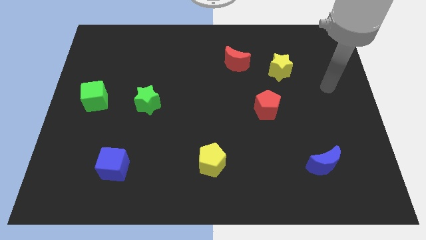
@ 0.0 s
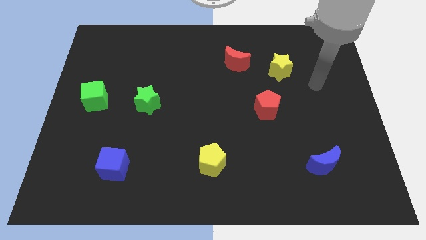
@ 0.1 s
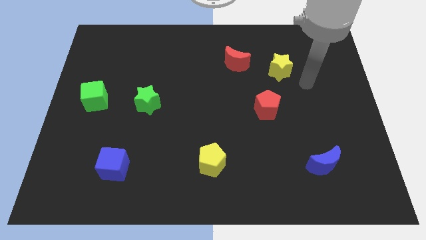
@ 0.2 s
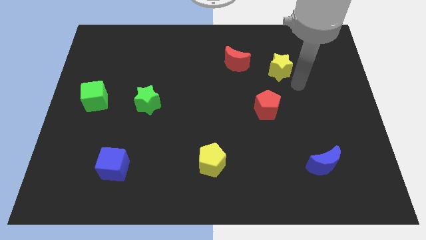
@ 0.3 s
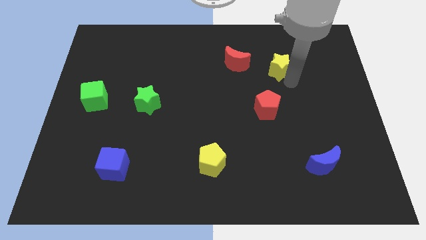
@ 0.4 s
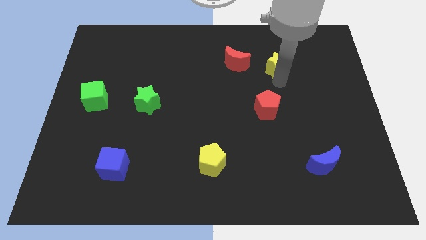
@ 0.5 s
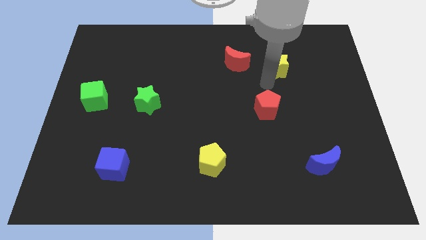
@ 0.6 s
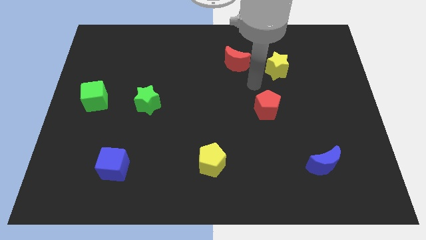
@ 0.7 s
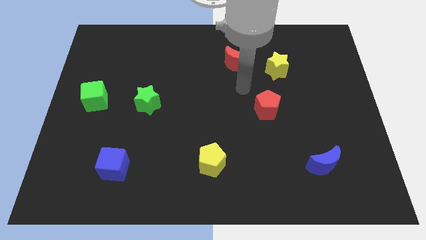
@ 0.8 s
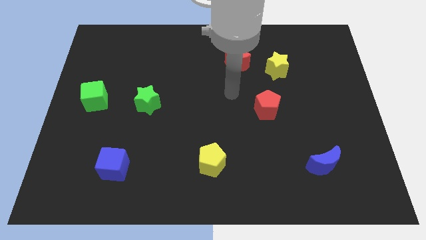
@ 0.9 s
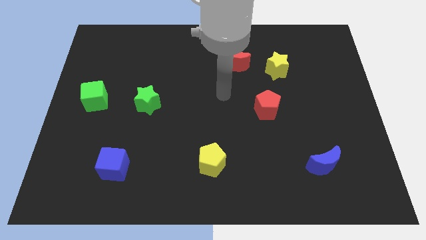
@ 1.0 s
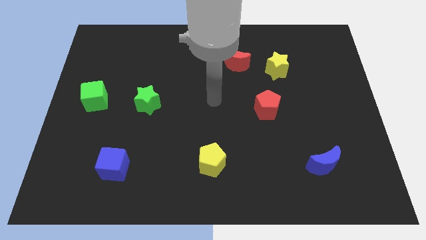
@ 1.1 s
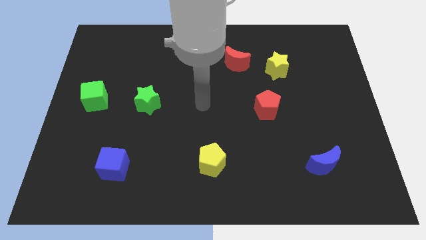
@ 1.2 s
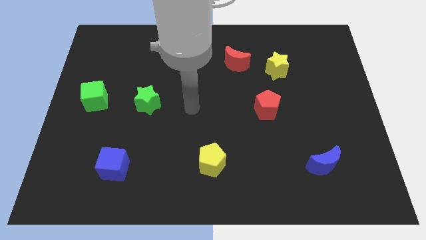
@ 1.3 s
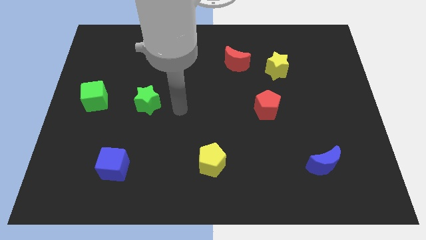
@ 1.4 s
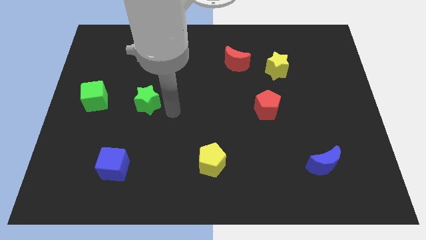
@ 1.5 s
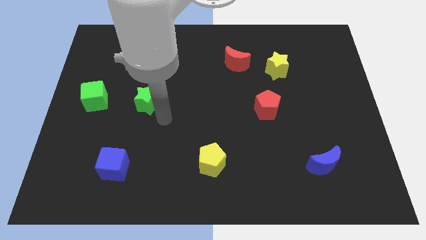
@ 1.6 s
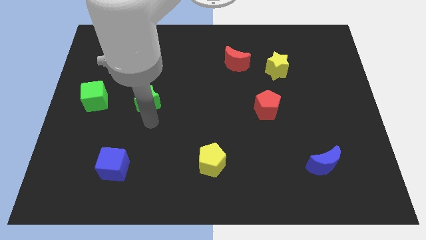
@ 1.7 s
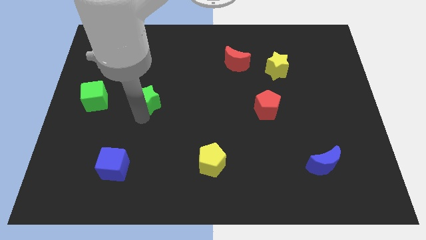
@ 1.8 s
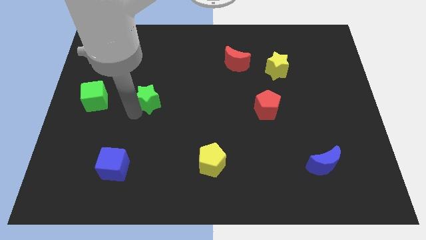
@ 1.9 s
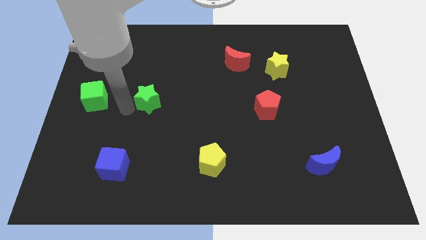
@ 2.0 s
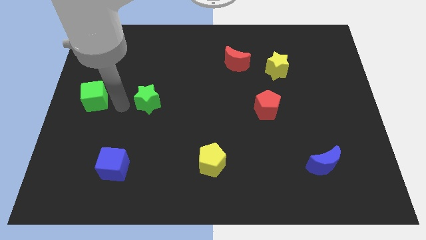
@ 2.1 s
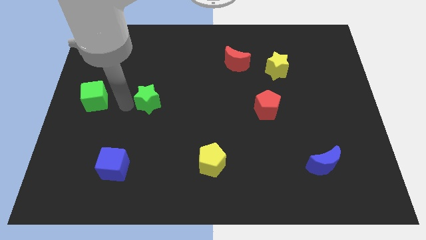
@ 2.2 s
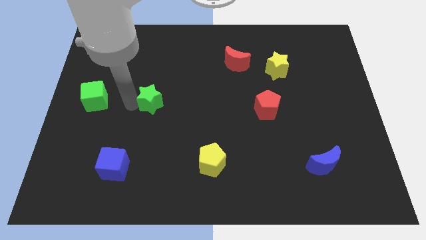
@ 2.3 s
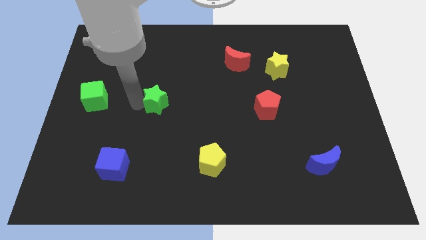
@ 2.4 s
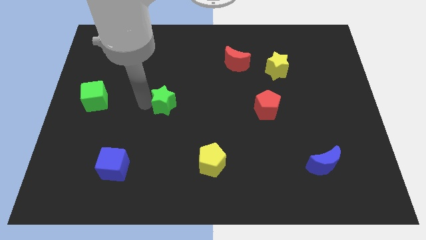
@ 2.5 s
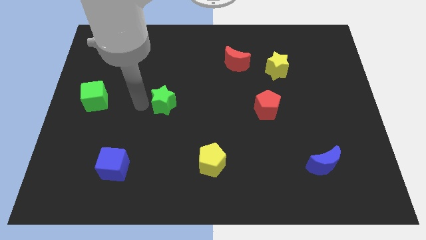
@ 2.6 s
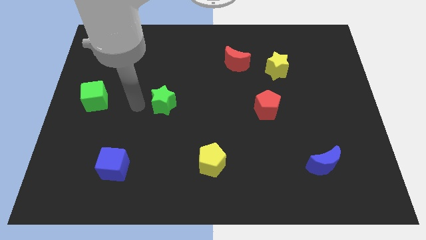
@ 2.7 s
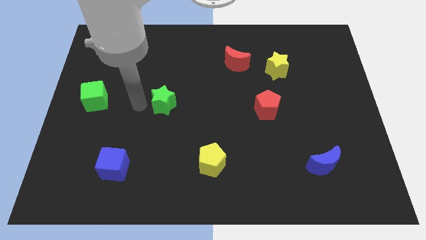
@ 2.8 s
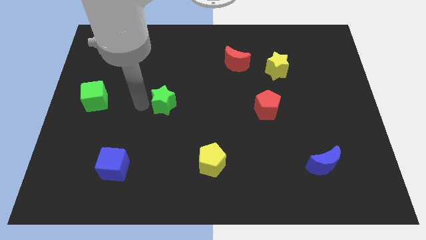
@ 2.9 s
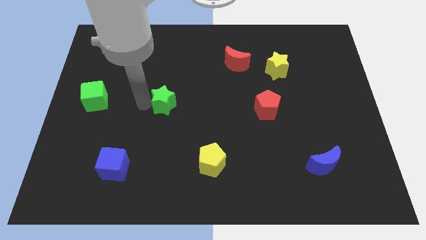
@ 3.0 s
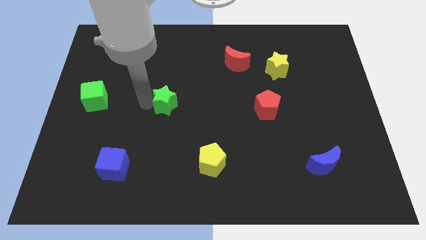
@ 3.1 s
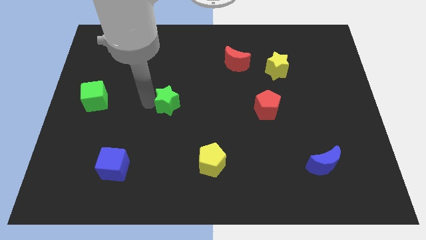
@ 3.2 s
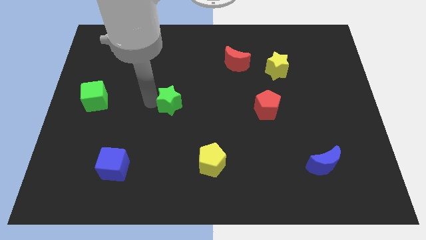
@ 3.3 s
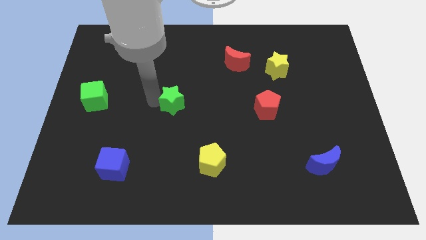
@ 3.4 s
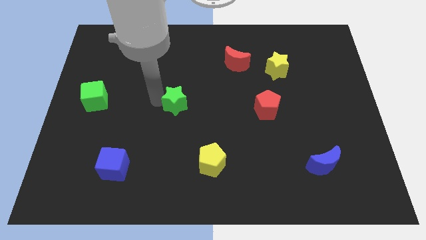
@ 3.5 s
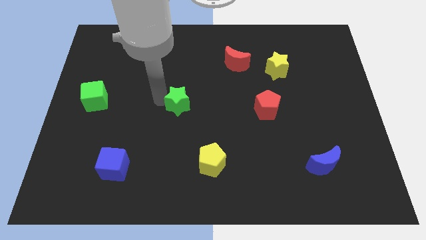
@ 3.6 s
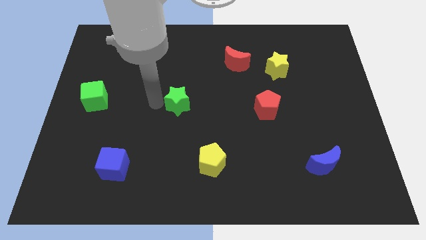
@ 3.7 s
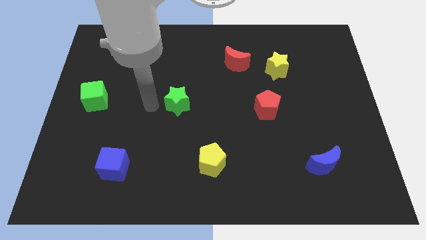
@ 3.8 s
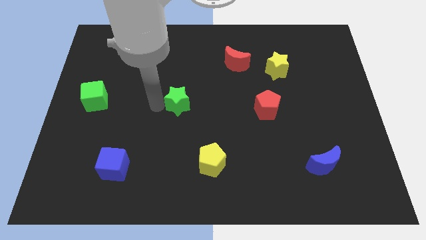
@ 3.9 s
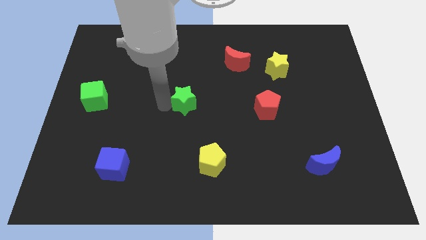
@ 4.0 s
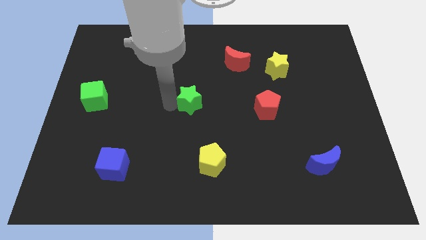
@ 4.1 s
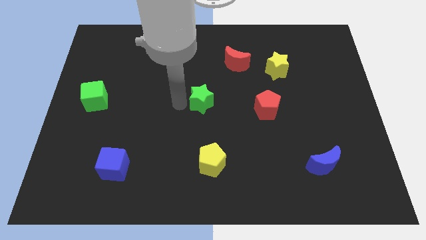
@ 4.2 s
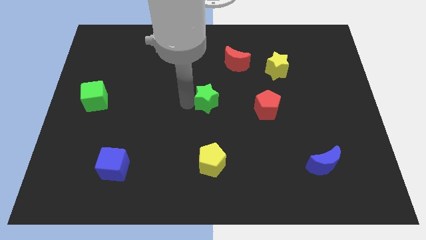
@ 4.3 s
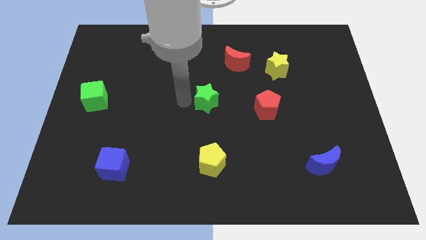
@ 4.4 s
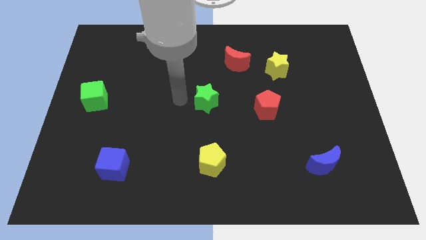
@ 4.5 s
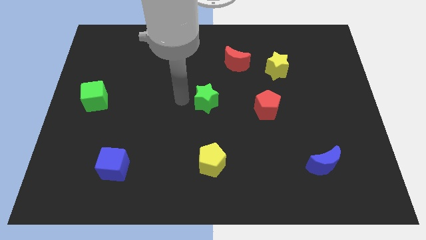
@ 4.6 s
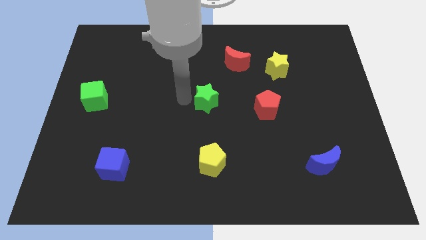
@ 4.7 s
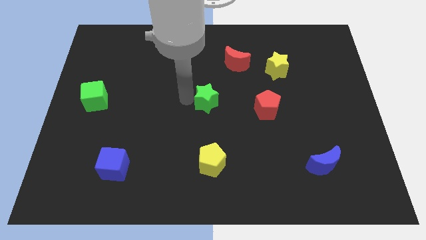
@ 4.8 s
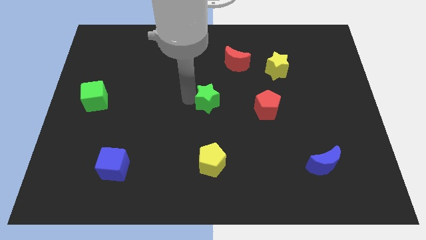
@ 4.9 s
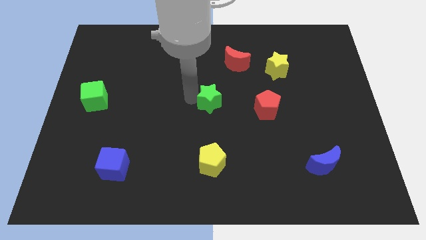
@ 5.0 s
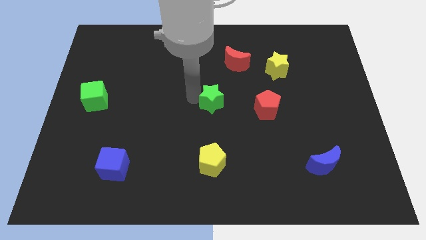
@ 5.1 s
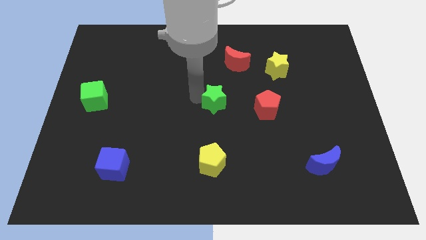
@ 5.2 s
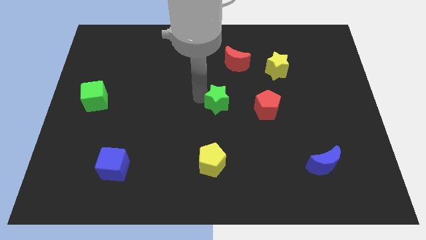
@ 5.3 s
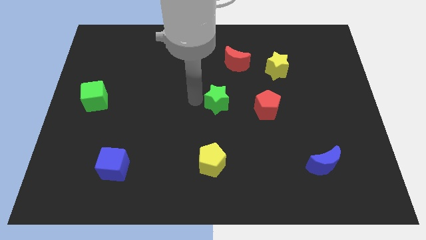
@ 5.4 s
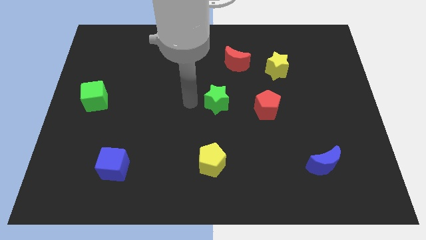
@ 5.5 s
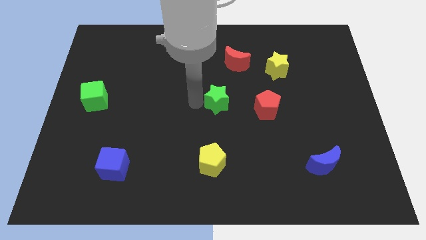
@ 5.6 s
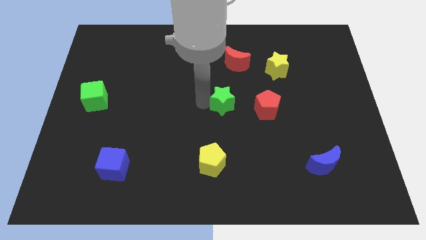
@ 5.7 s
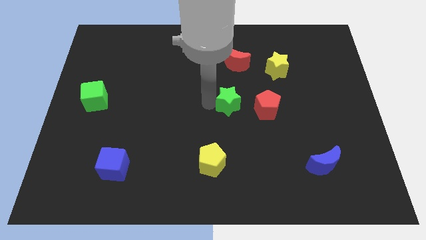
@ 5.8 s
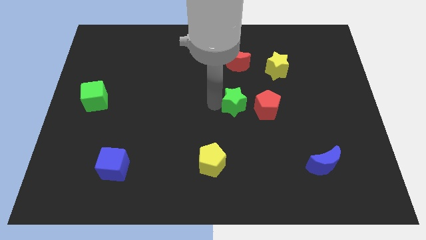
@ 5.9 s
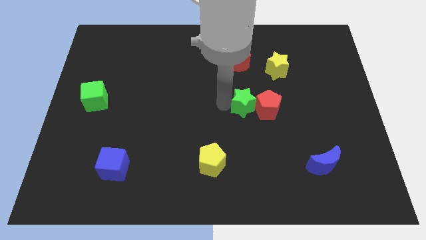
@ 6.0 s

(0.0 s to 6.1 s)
push the green star to the red pentagon

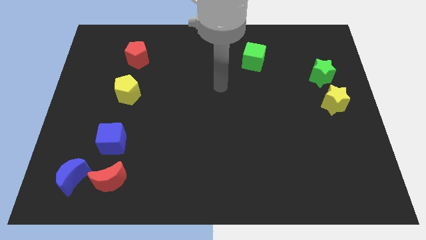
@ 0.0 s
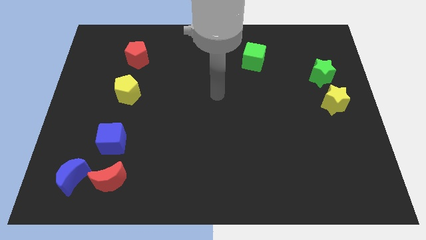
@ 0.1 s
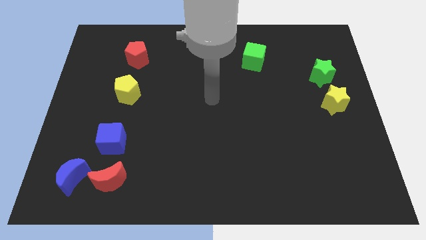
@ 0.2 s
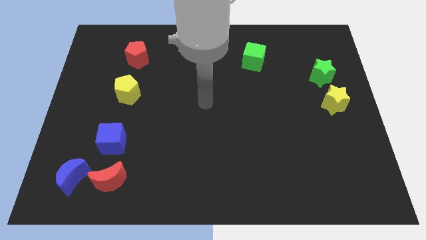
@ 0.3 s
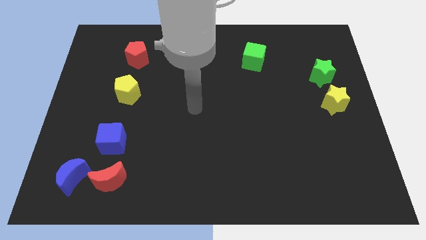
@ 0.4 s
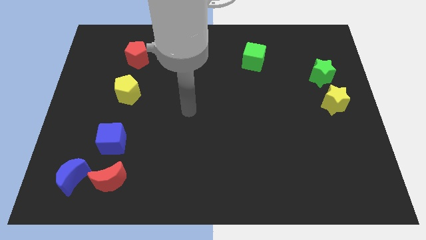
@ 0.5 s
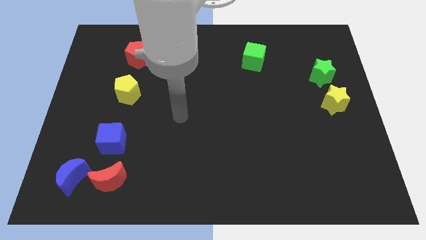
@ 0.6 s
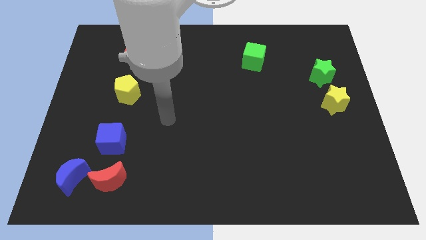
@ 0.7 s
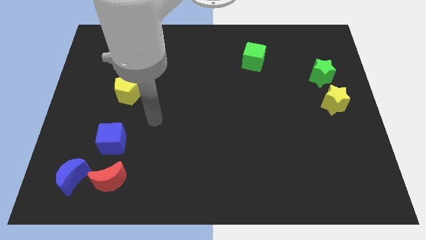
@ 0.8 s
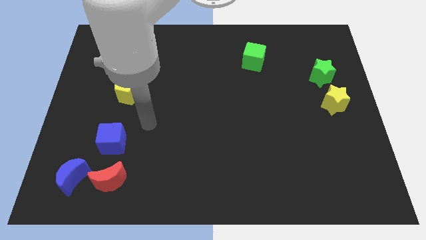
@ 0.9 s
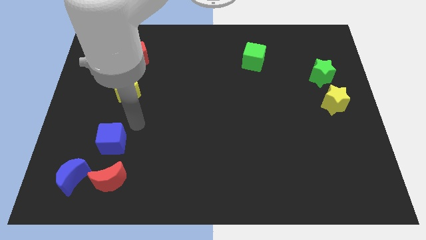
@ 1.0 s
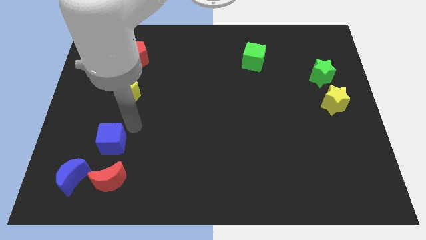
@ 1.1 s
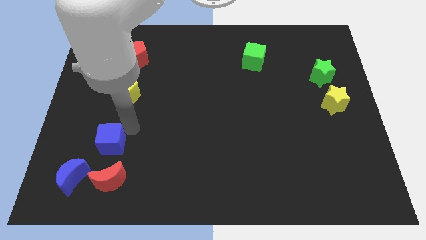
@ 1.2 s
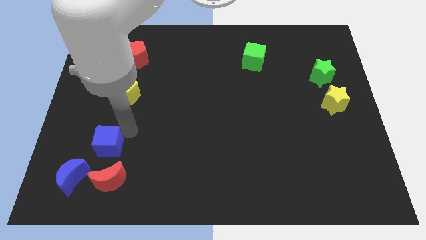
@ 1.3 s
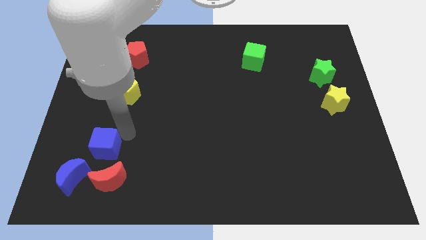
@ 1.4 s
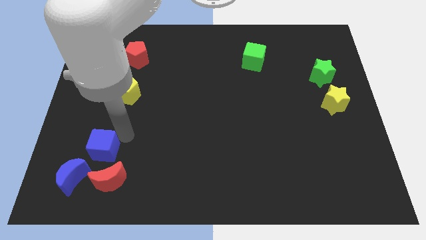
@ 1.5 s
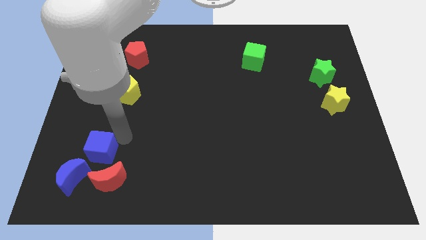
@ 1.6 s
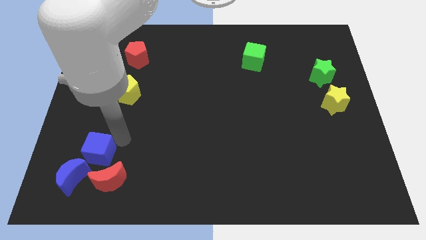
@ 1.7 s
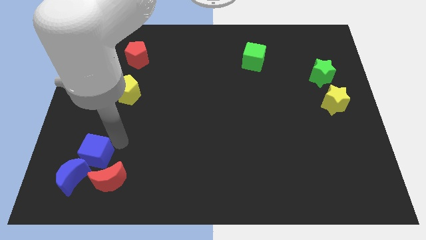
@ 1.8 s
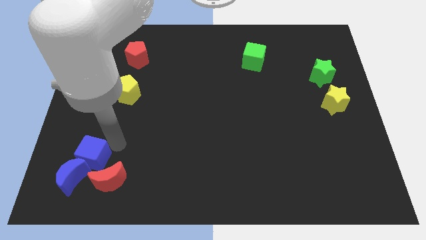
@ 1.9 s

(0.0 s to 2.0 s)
move the blue cube next to the blue moon
